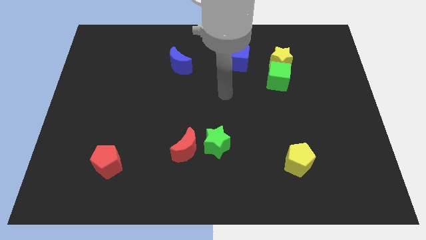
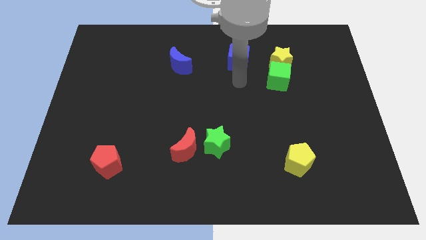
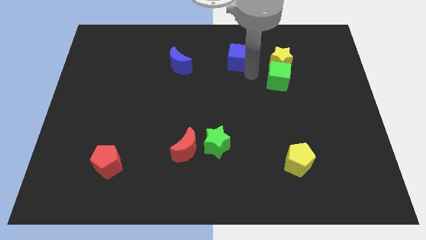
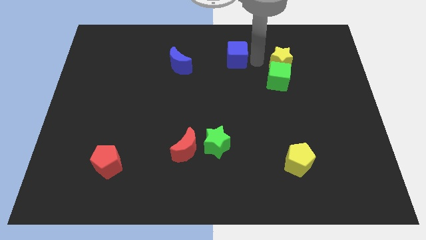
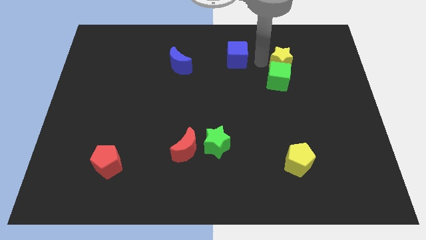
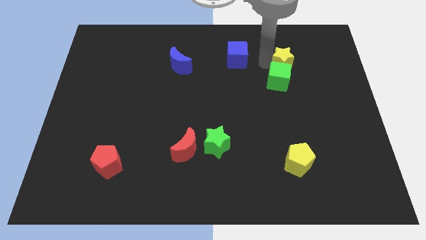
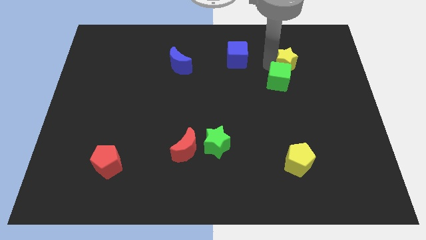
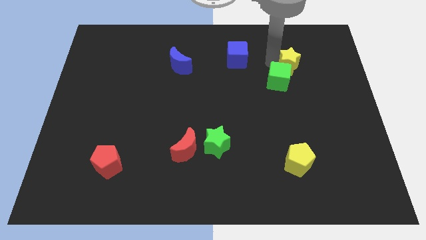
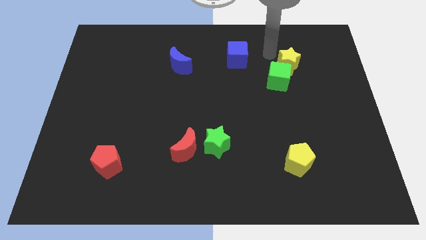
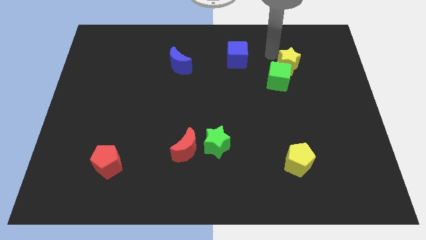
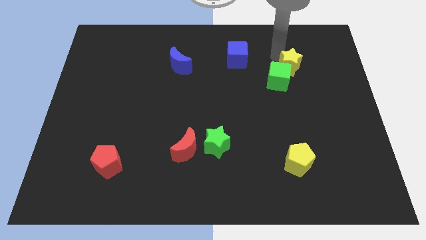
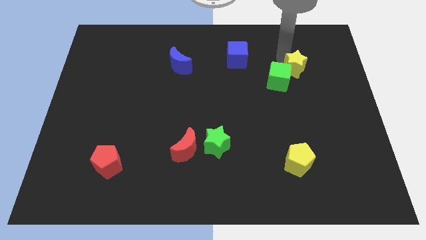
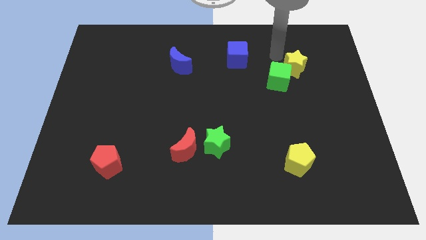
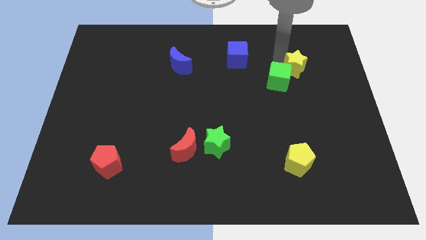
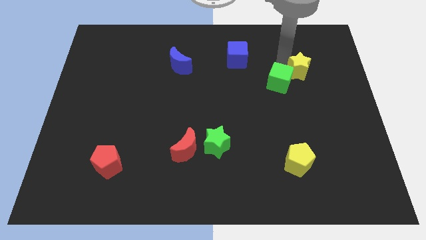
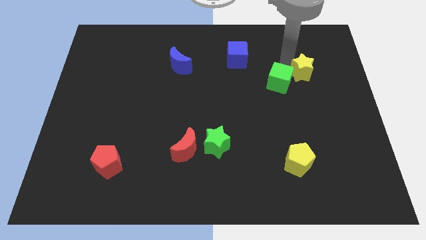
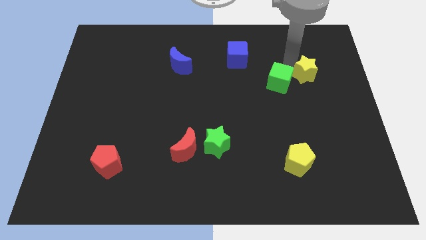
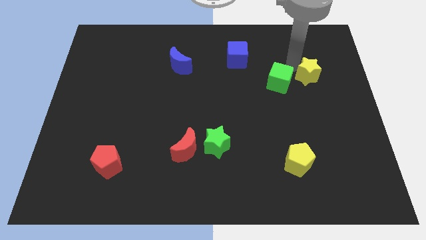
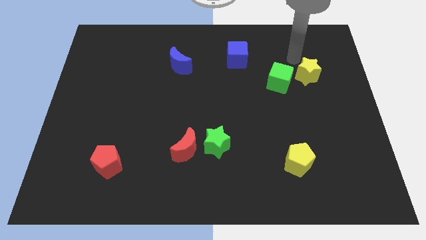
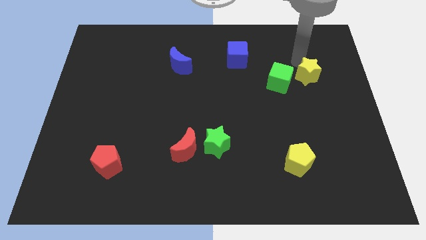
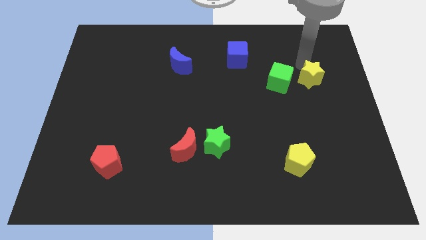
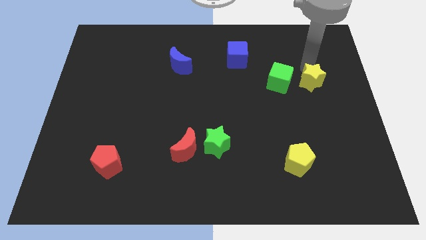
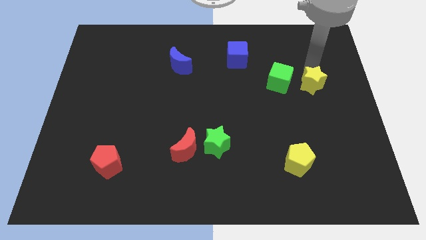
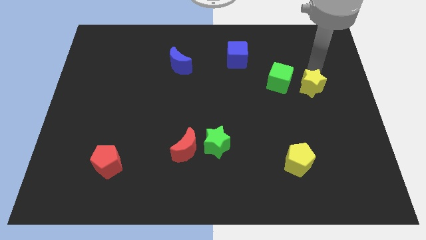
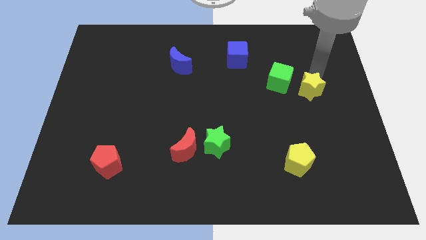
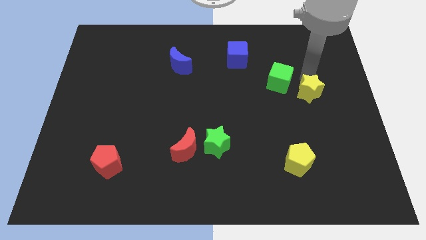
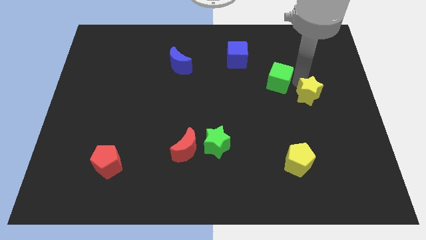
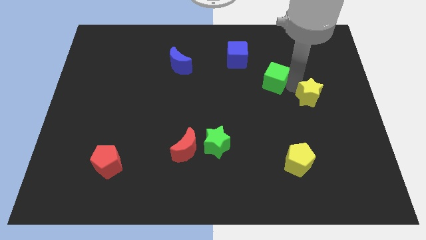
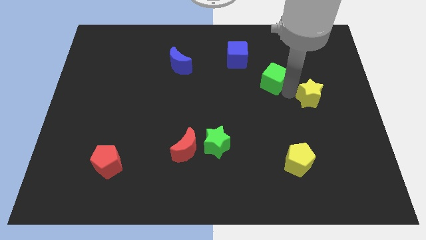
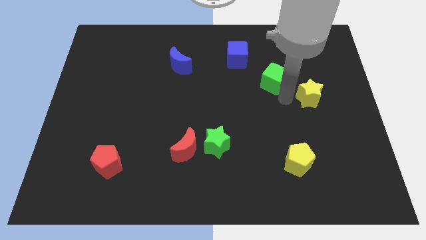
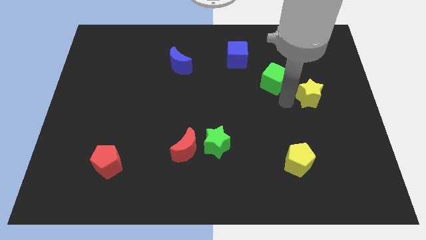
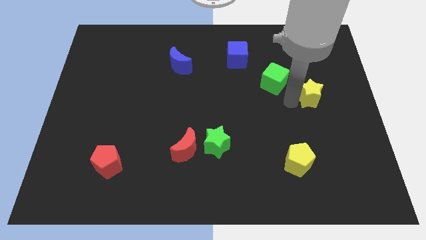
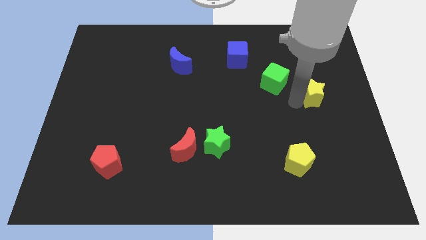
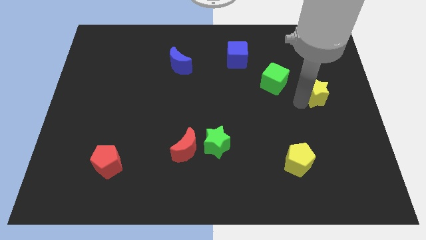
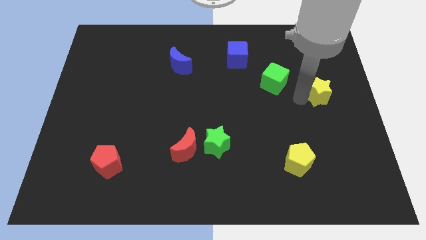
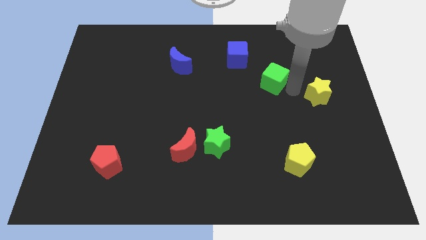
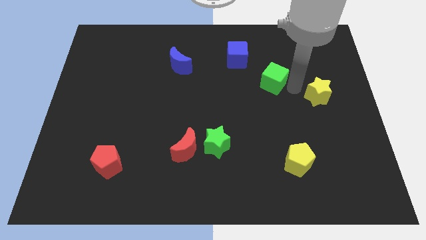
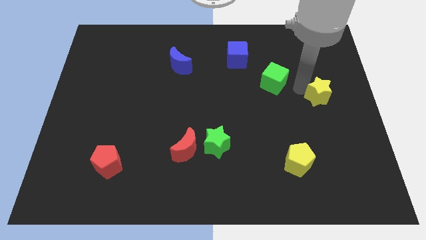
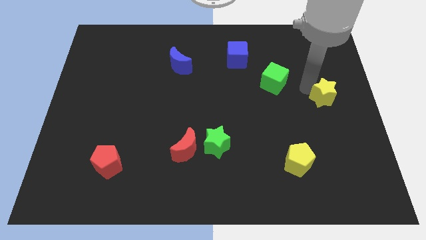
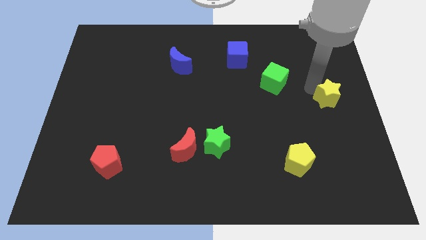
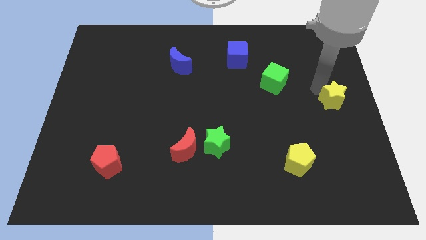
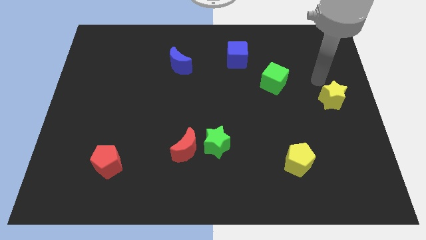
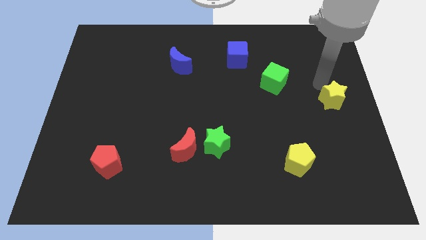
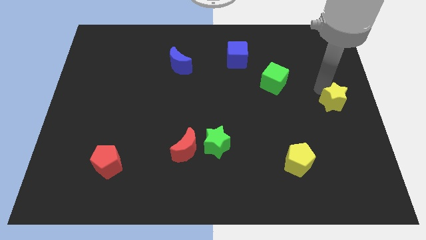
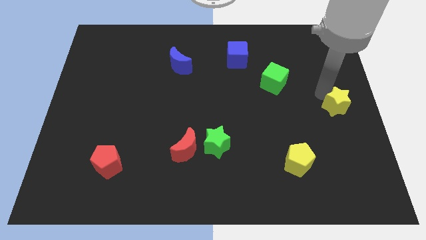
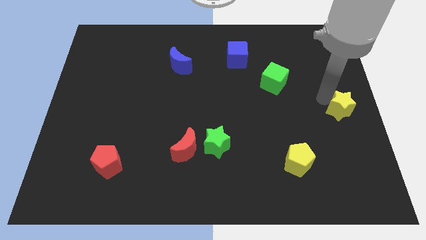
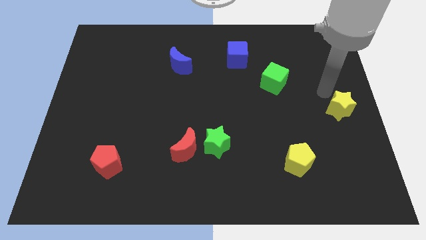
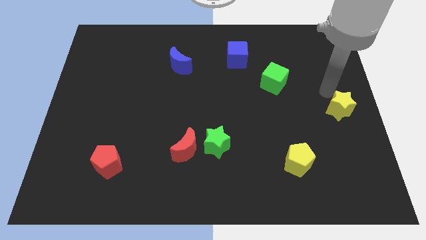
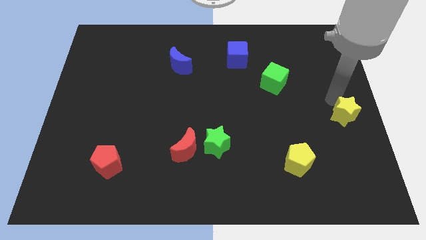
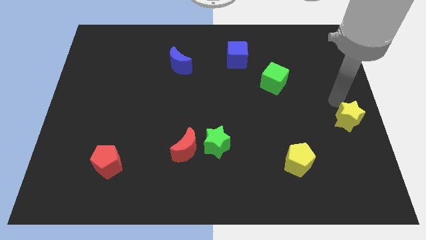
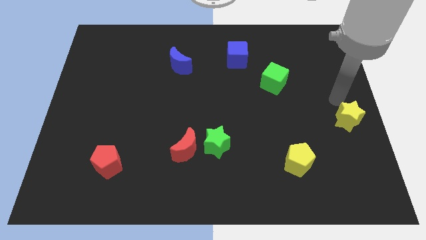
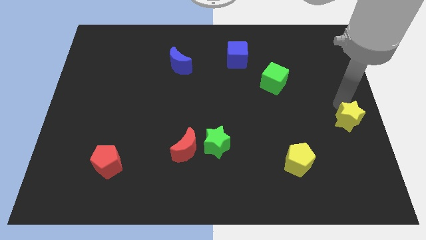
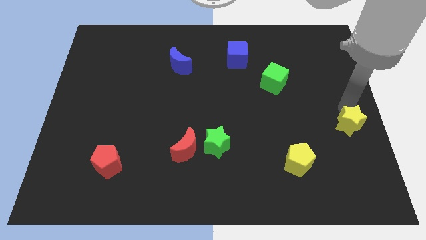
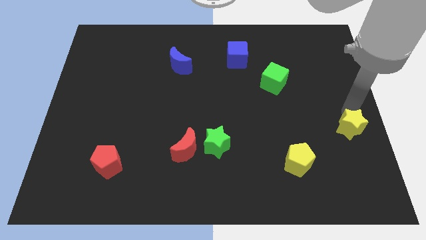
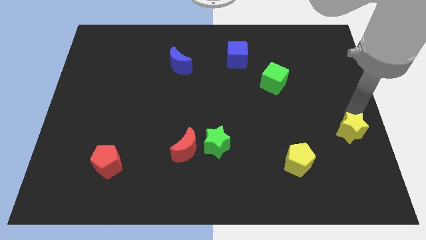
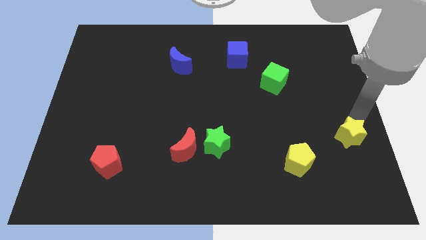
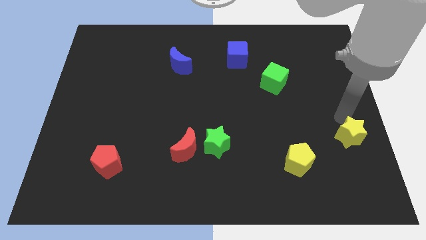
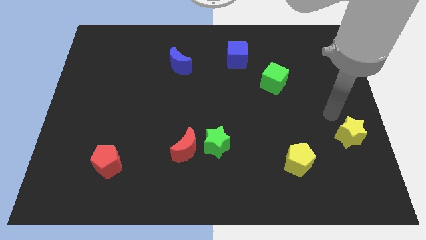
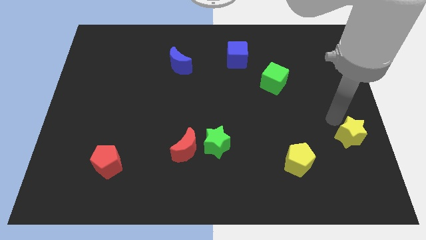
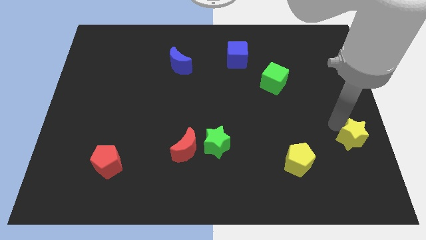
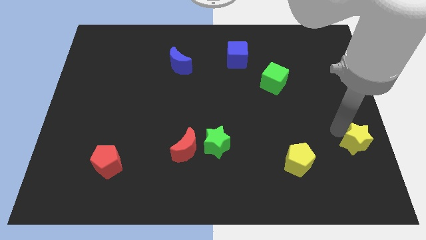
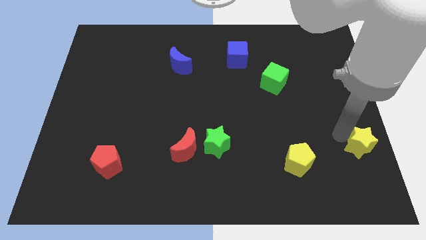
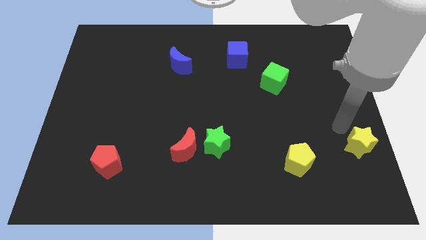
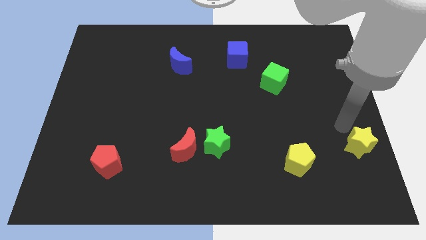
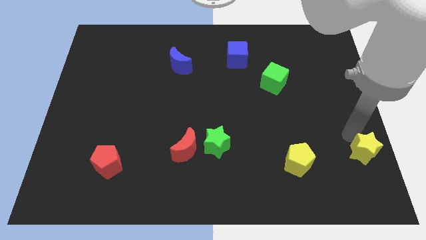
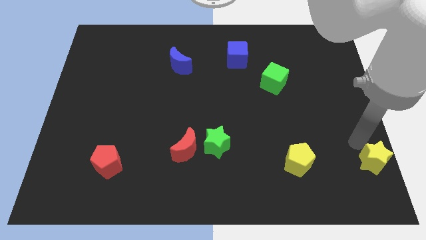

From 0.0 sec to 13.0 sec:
put the yellow star to the bottom right corner
